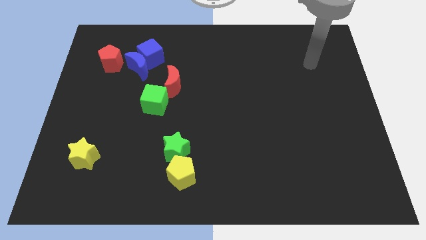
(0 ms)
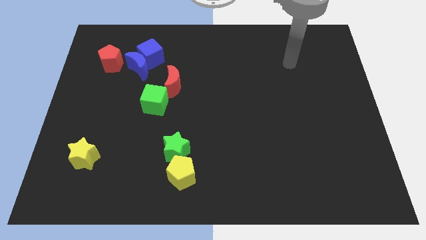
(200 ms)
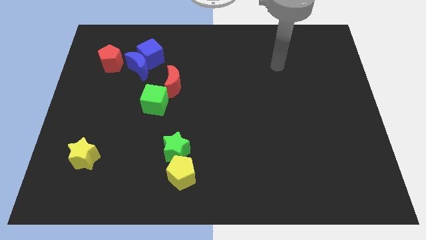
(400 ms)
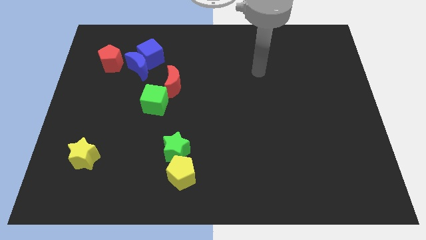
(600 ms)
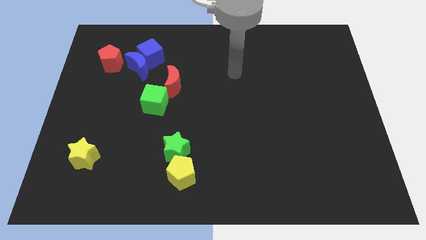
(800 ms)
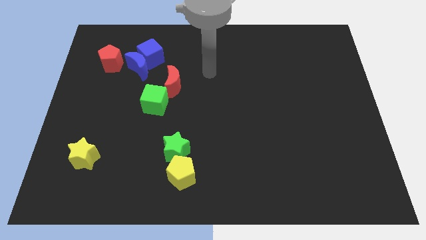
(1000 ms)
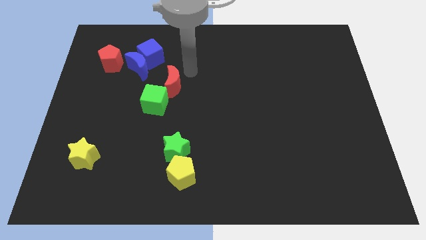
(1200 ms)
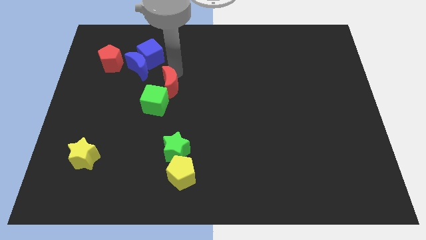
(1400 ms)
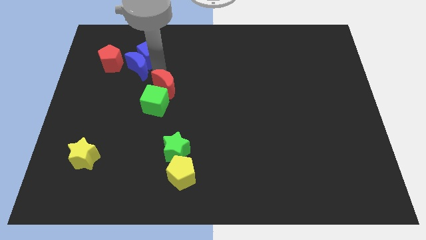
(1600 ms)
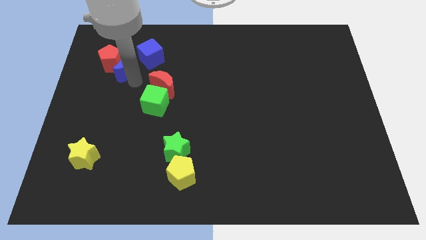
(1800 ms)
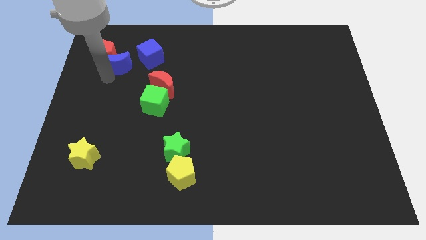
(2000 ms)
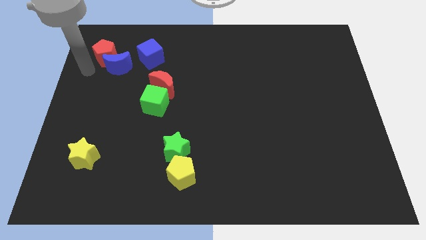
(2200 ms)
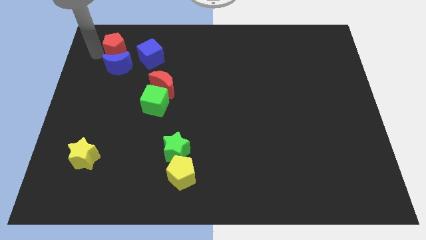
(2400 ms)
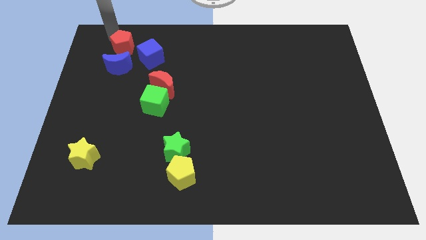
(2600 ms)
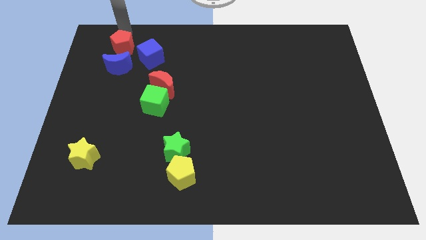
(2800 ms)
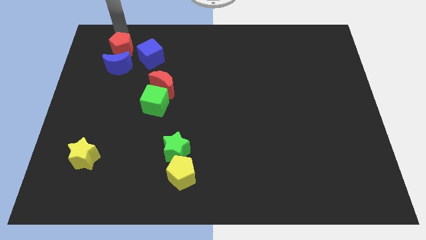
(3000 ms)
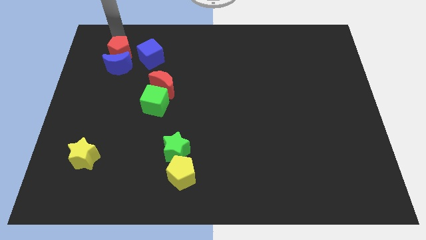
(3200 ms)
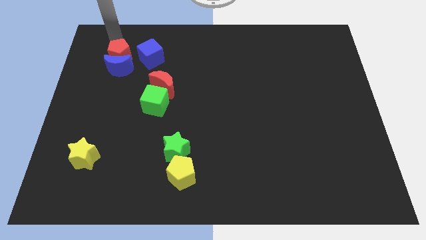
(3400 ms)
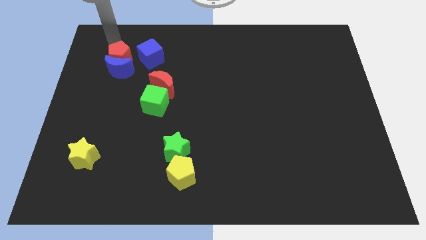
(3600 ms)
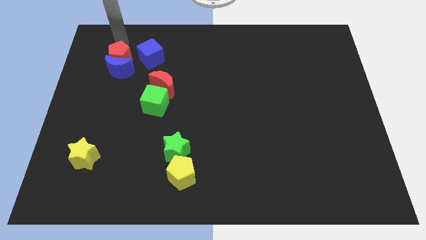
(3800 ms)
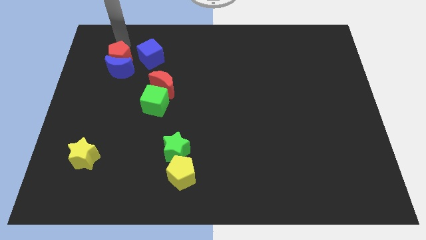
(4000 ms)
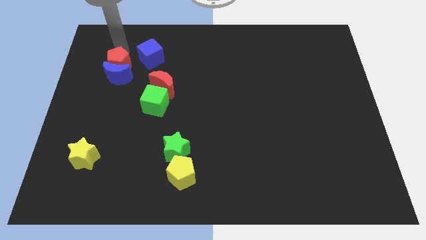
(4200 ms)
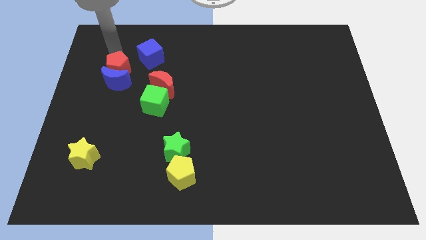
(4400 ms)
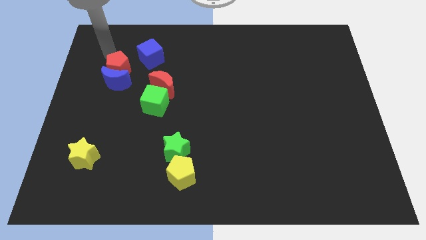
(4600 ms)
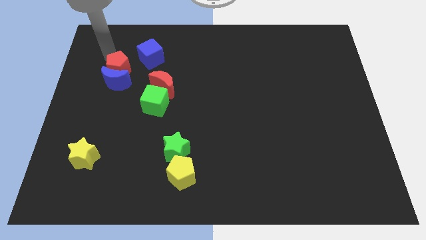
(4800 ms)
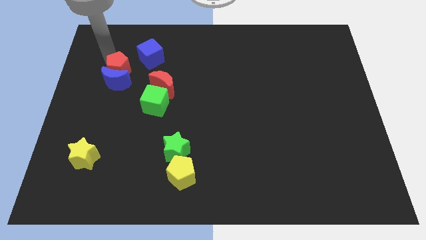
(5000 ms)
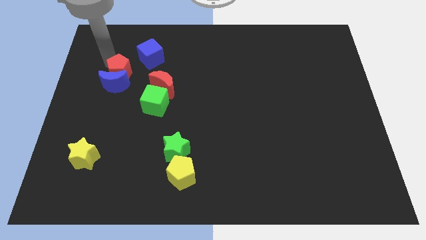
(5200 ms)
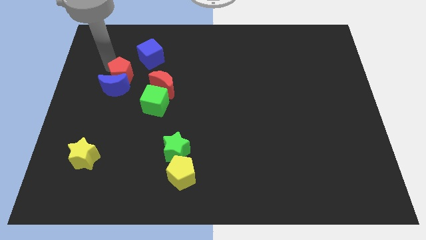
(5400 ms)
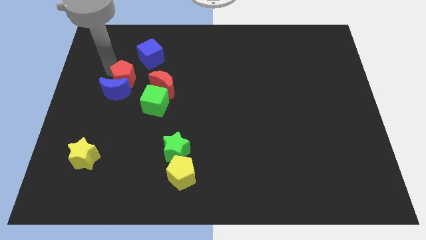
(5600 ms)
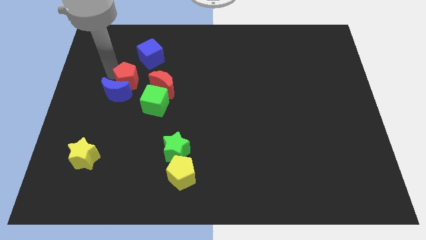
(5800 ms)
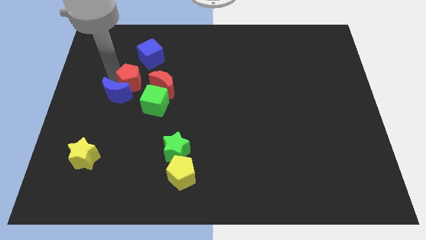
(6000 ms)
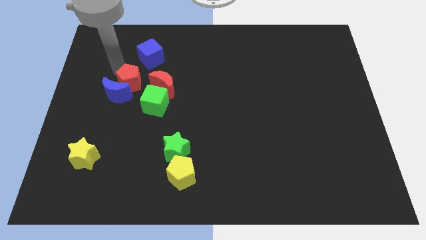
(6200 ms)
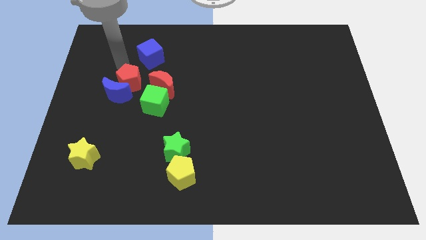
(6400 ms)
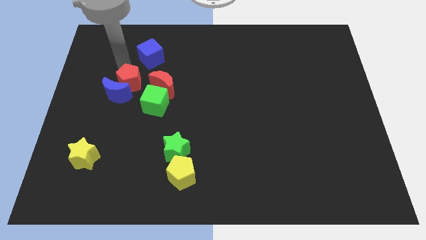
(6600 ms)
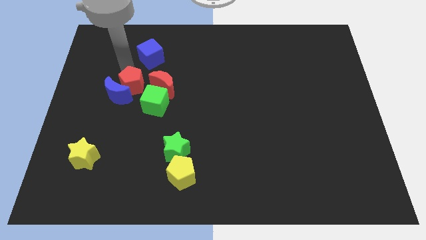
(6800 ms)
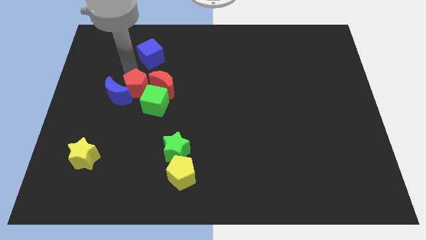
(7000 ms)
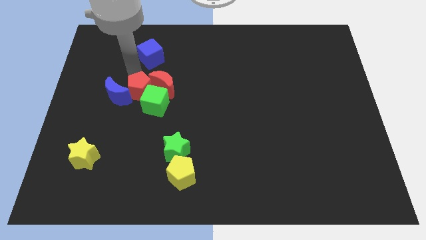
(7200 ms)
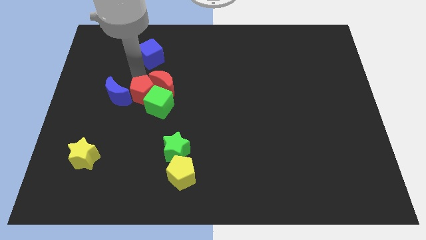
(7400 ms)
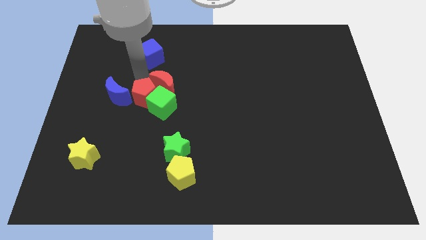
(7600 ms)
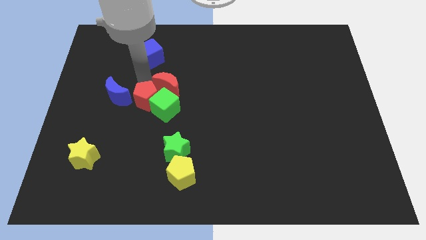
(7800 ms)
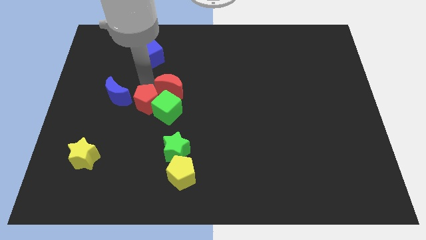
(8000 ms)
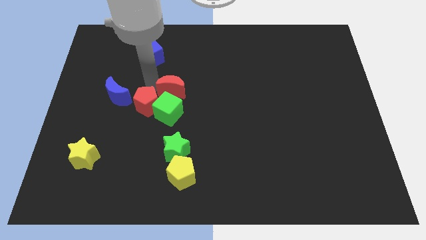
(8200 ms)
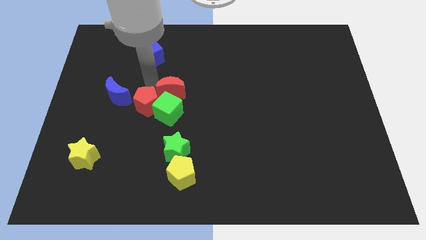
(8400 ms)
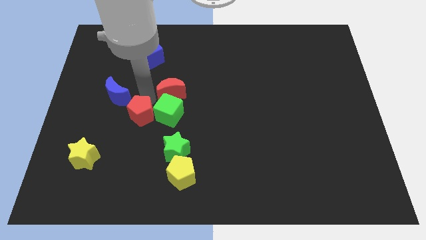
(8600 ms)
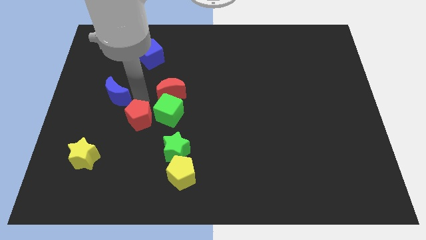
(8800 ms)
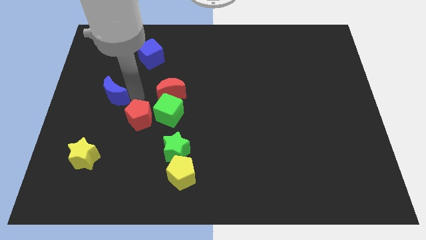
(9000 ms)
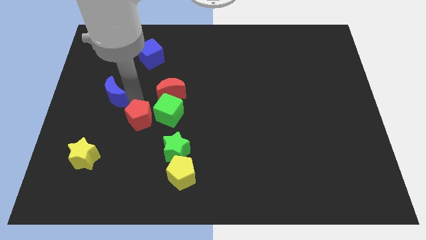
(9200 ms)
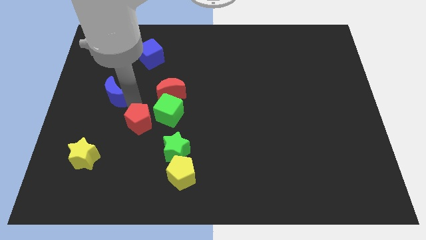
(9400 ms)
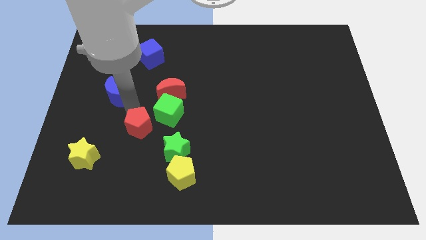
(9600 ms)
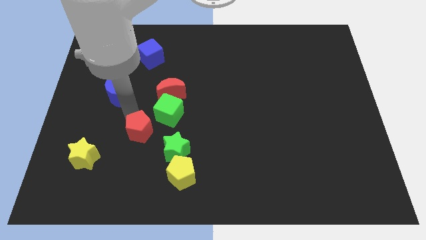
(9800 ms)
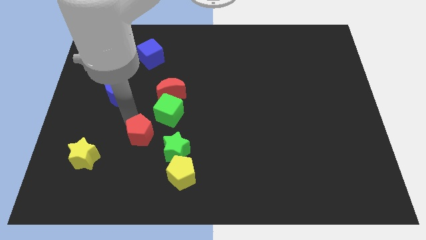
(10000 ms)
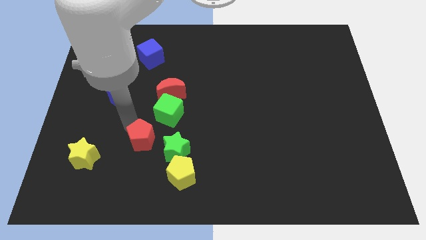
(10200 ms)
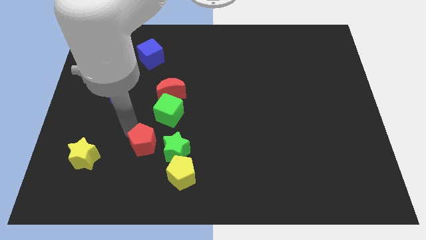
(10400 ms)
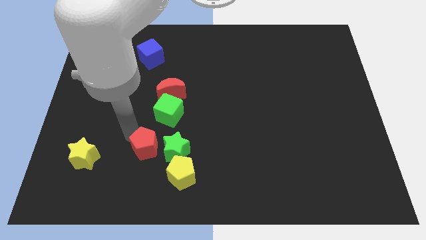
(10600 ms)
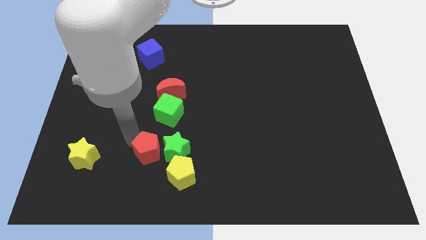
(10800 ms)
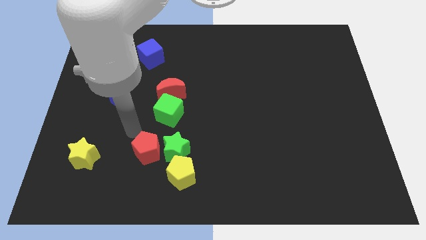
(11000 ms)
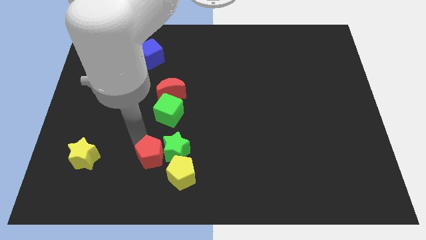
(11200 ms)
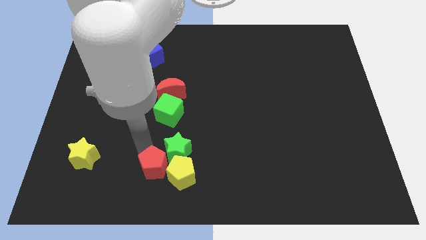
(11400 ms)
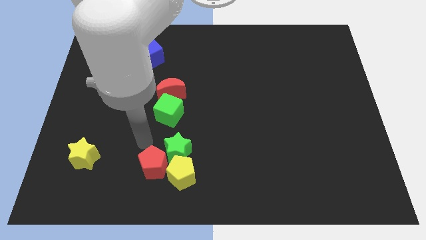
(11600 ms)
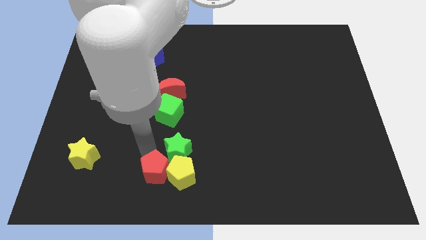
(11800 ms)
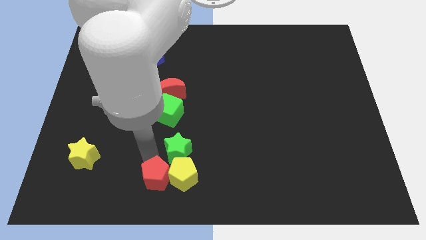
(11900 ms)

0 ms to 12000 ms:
push the red pentagon to the bottom

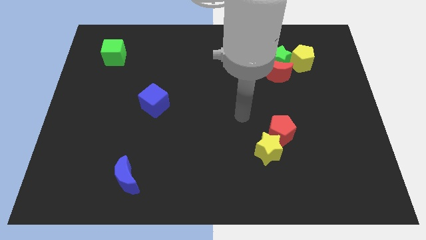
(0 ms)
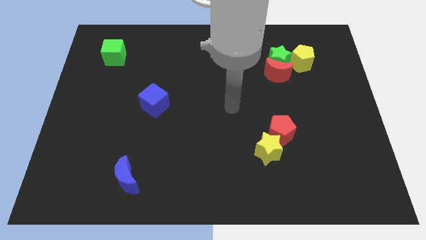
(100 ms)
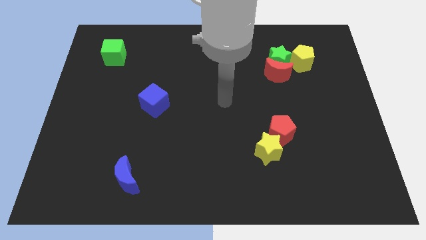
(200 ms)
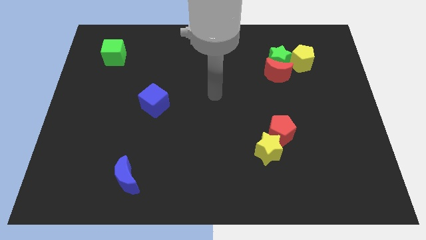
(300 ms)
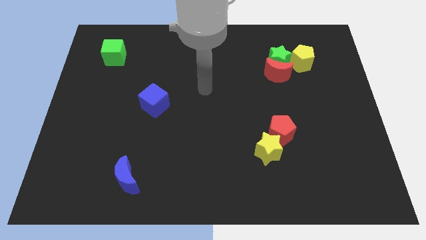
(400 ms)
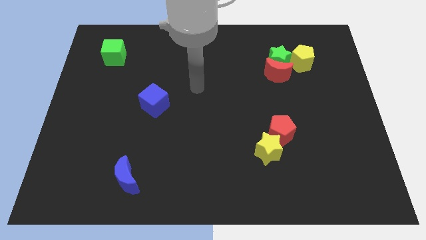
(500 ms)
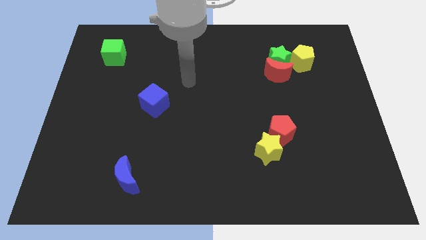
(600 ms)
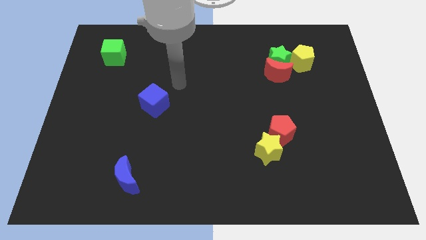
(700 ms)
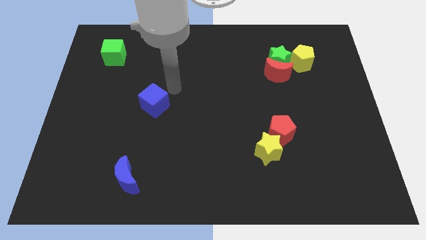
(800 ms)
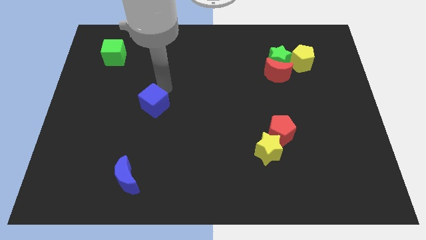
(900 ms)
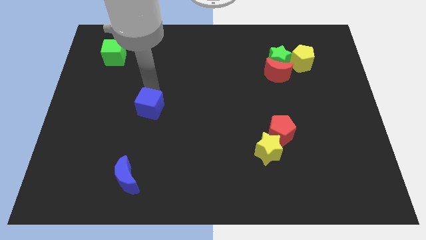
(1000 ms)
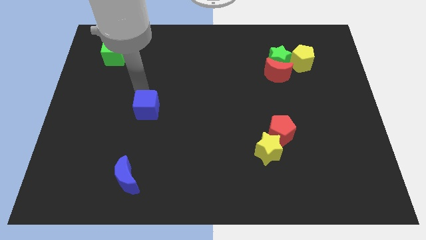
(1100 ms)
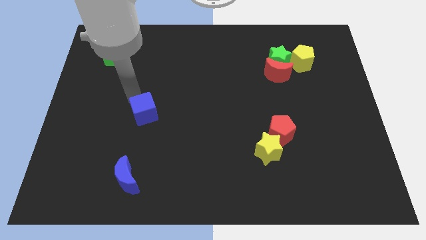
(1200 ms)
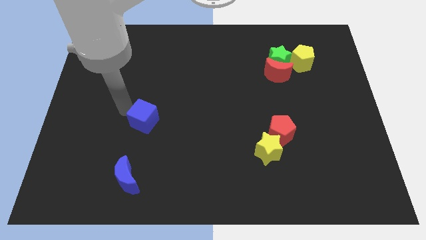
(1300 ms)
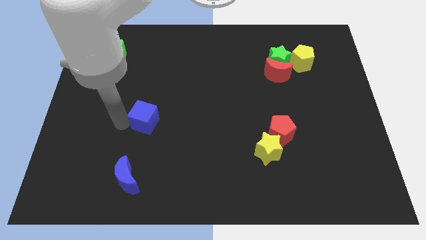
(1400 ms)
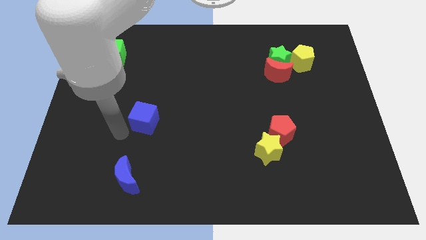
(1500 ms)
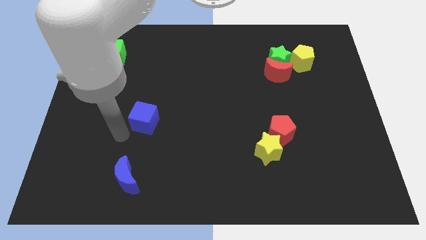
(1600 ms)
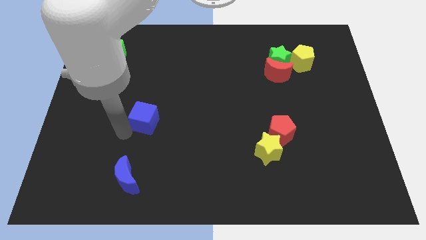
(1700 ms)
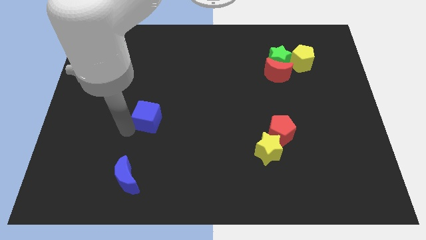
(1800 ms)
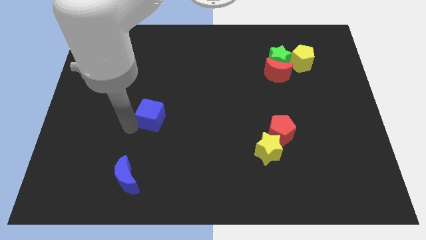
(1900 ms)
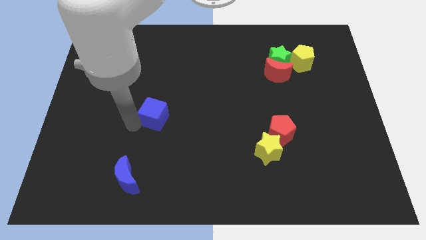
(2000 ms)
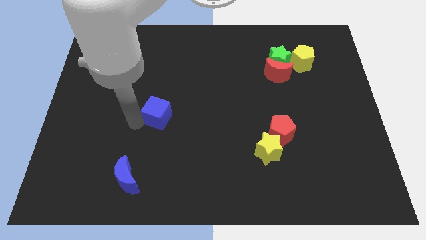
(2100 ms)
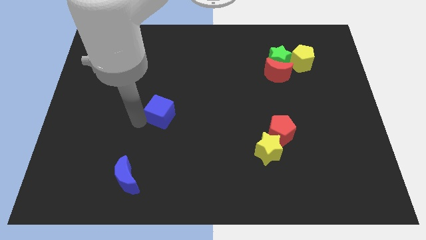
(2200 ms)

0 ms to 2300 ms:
slide the blue cube to the center of the board
